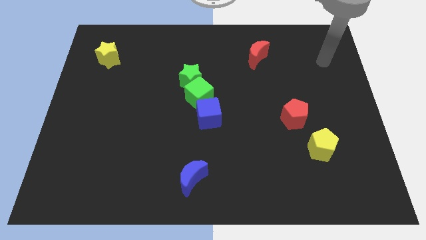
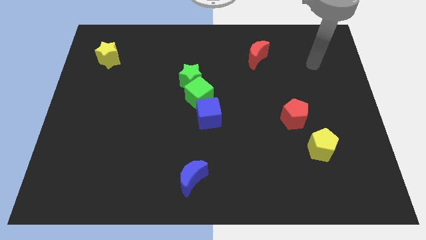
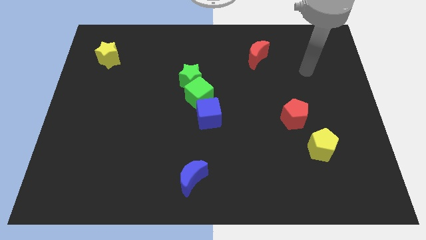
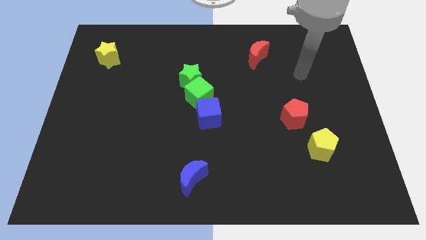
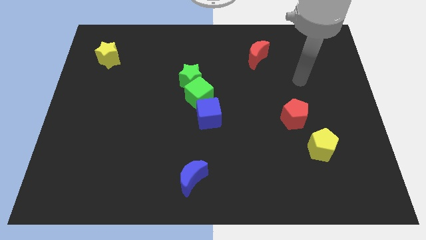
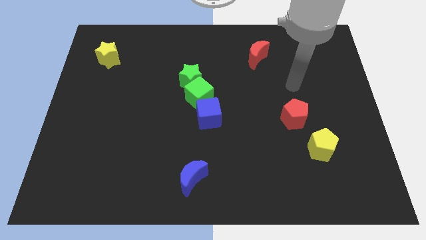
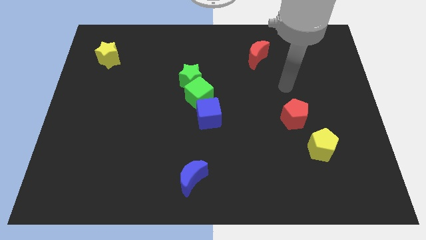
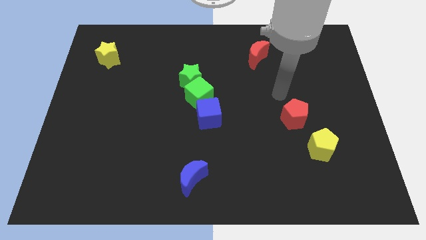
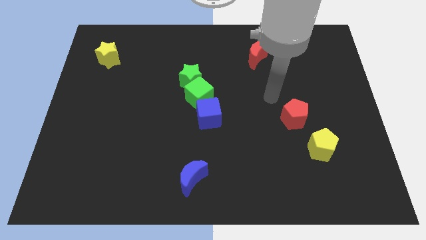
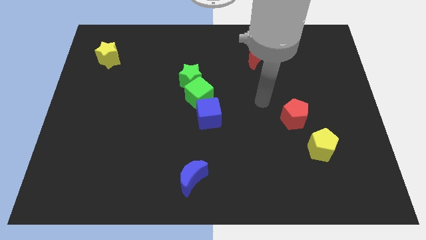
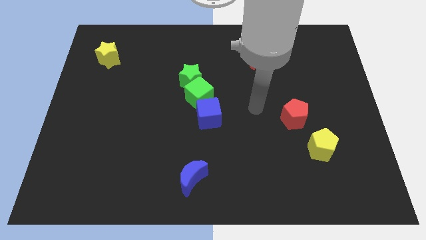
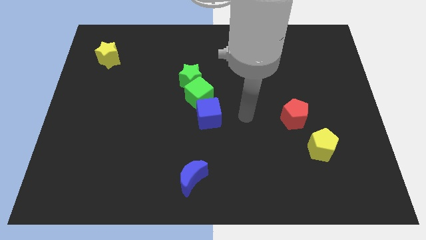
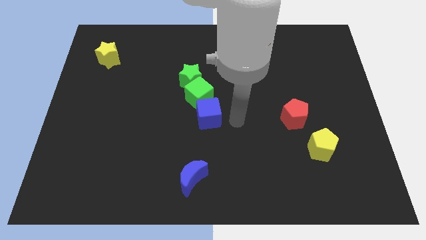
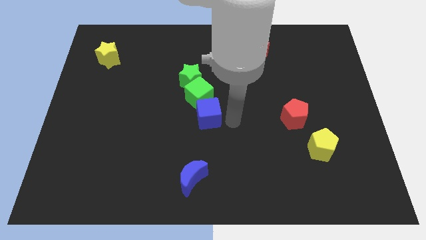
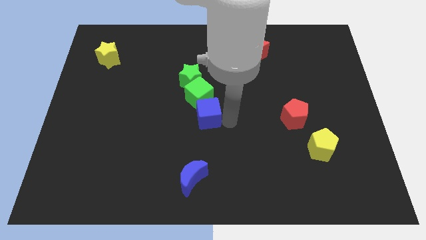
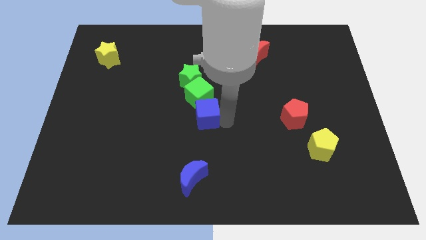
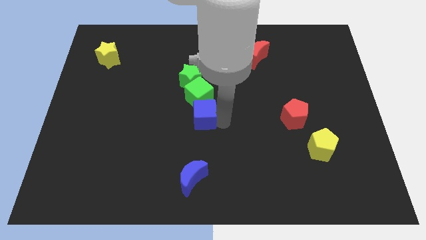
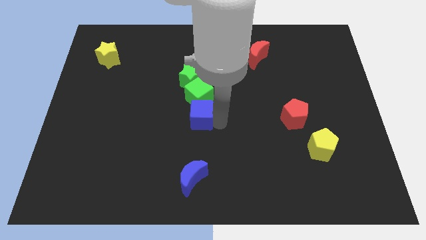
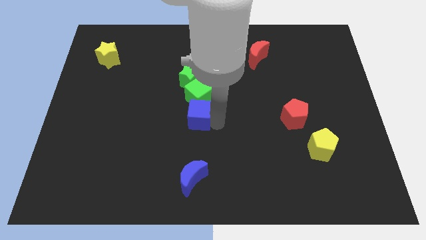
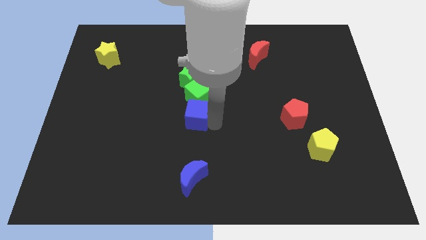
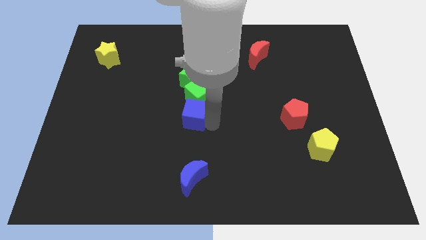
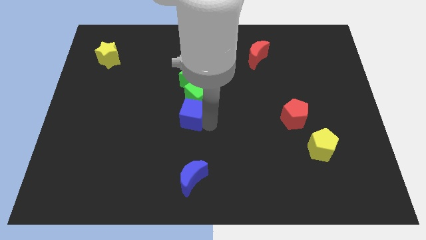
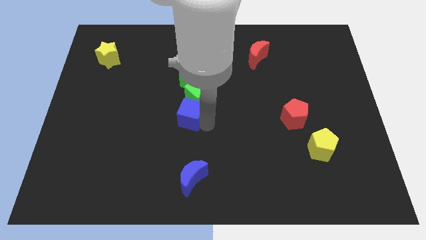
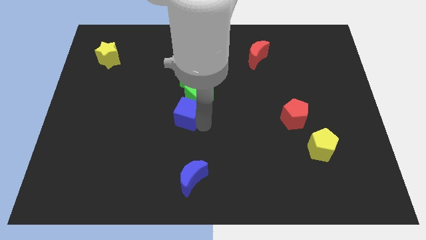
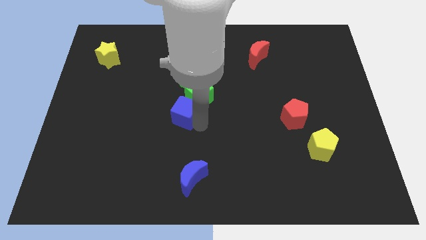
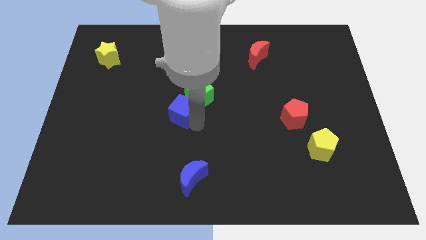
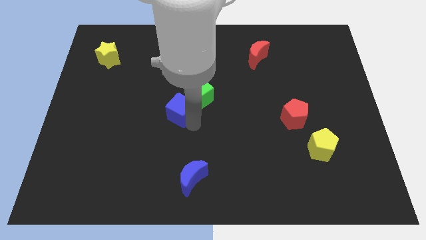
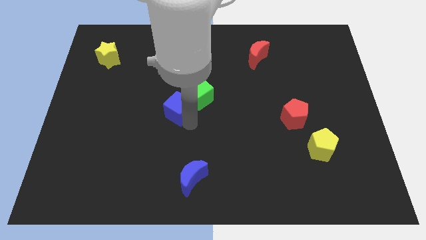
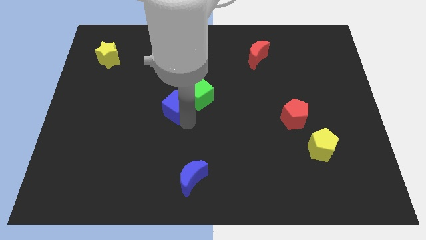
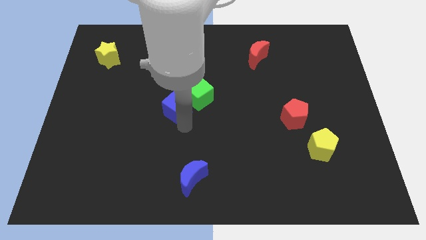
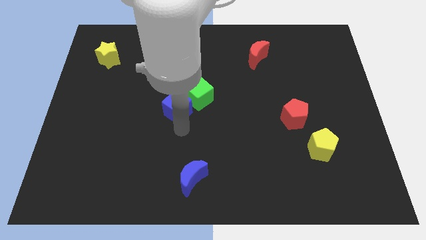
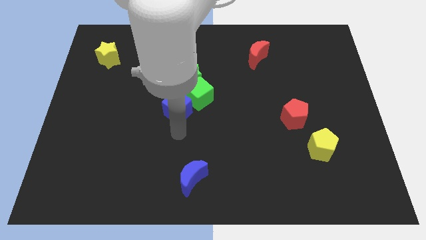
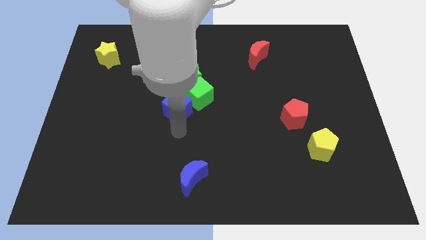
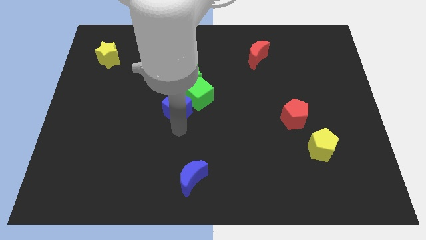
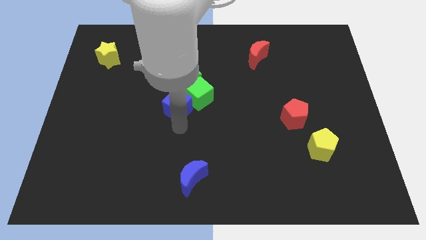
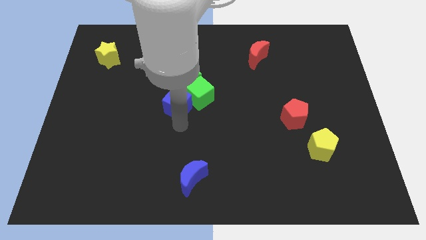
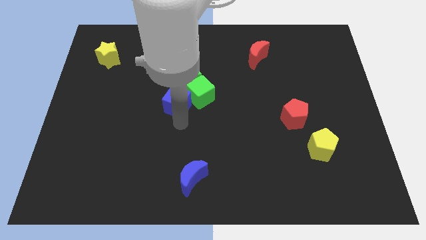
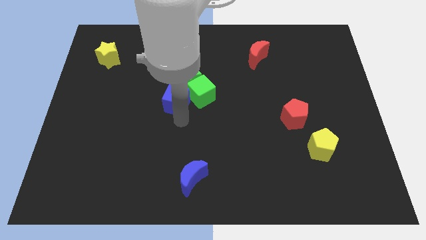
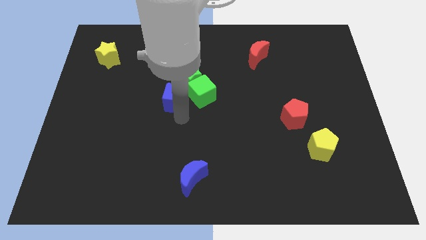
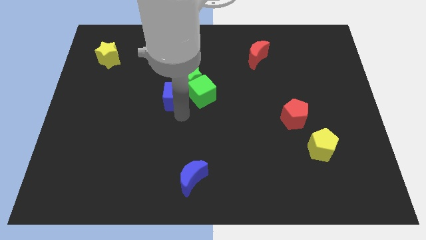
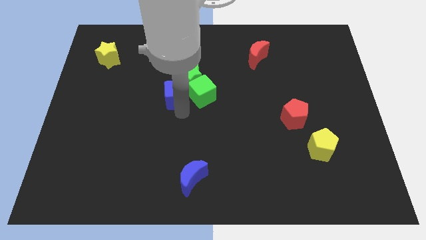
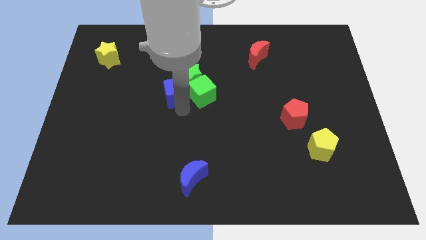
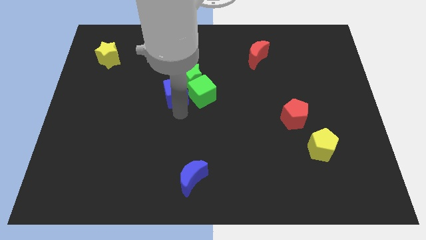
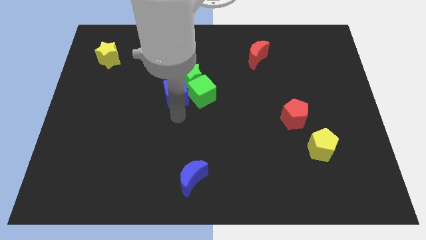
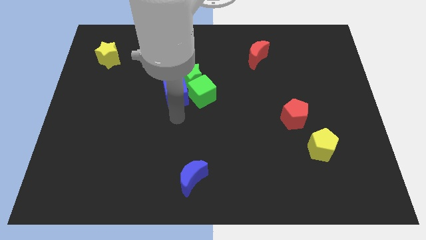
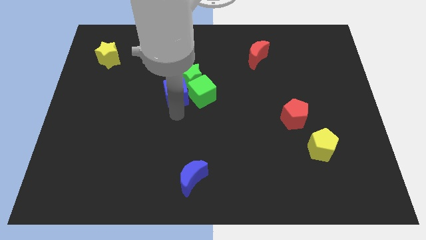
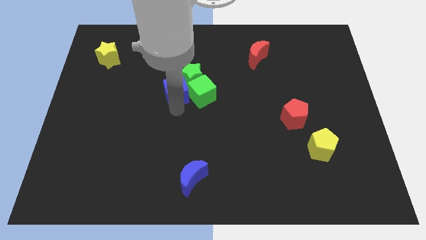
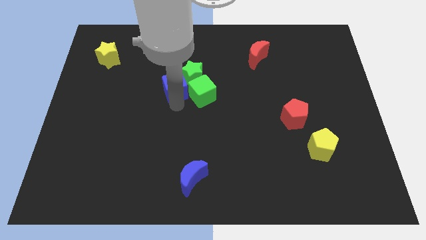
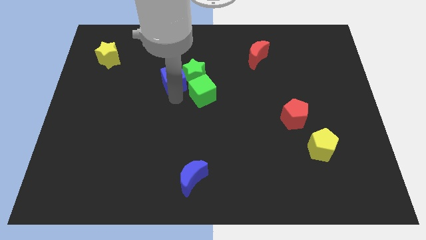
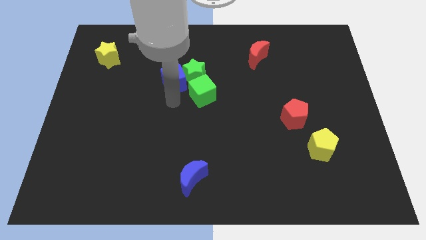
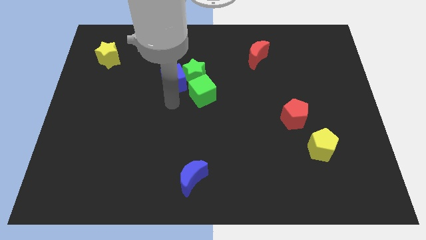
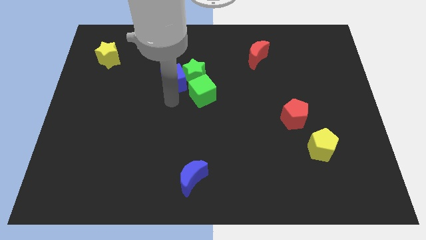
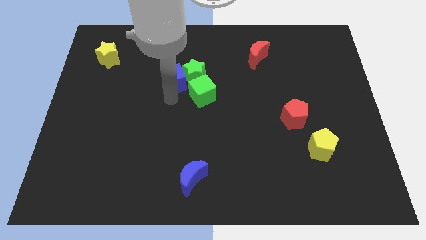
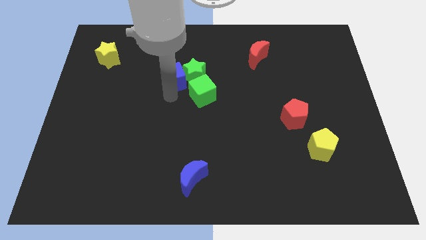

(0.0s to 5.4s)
slide the blue cube to the top left side of the green star

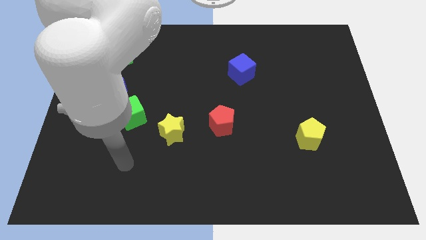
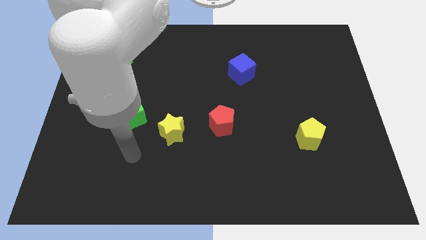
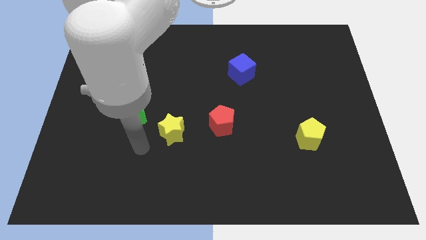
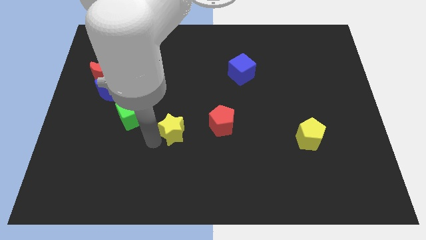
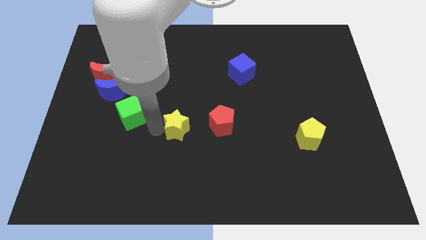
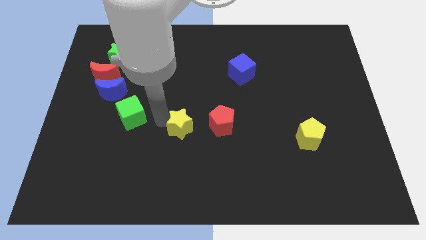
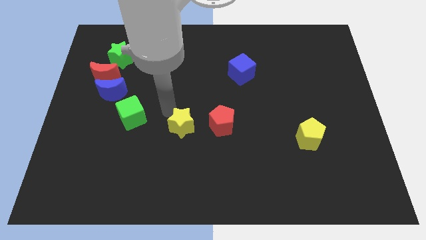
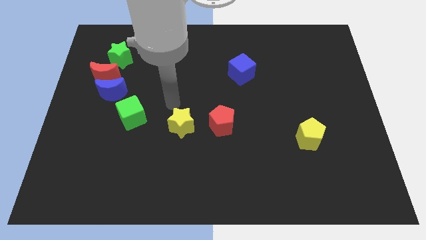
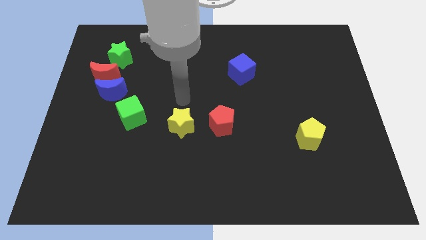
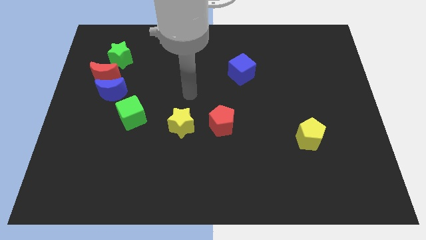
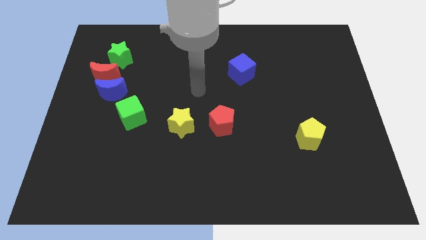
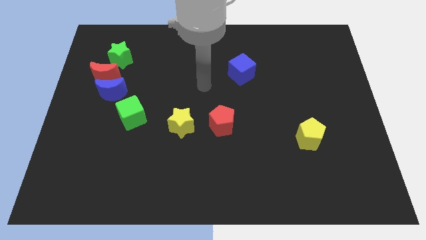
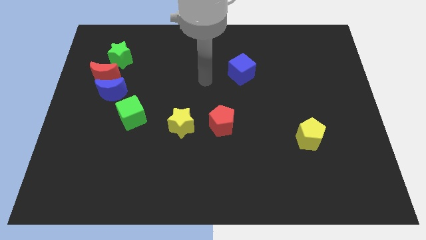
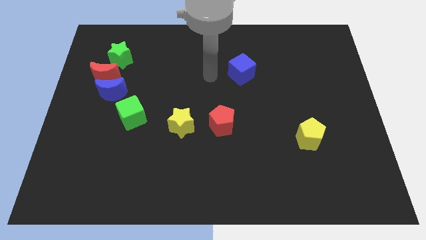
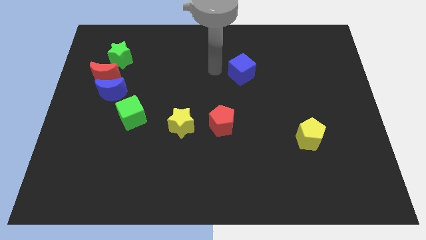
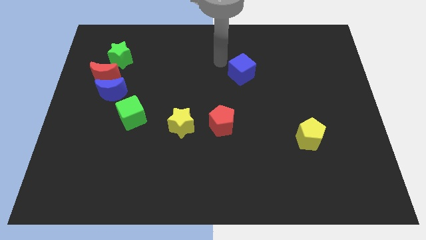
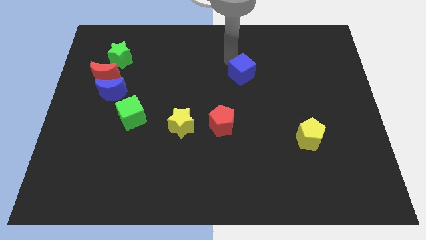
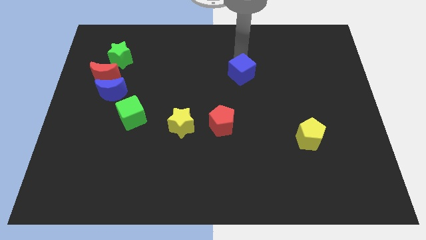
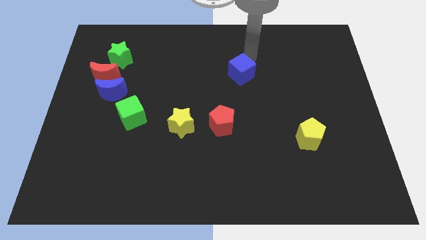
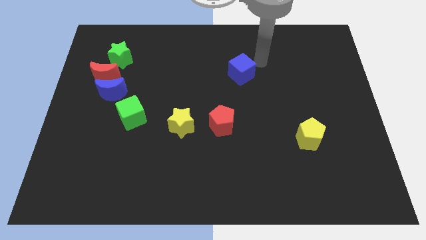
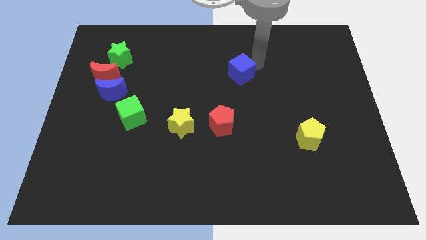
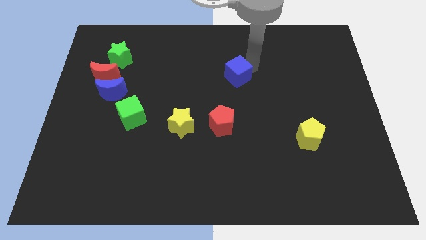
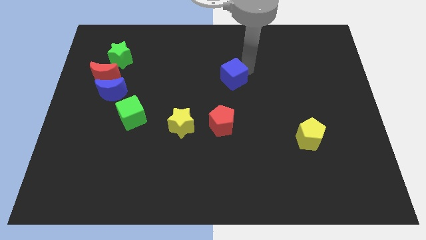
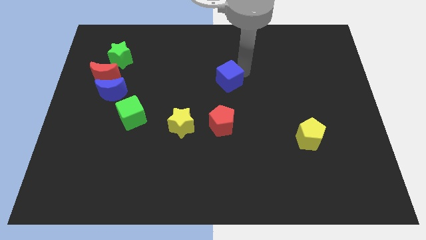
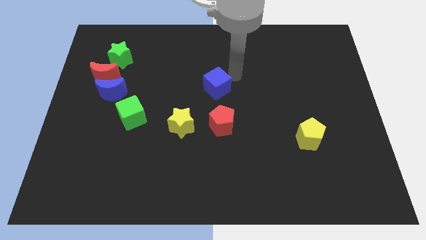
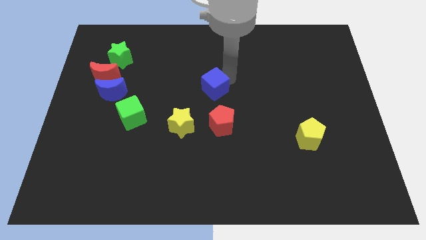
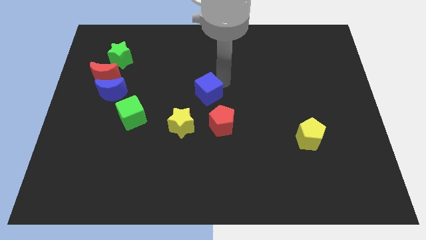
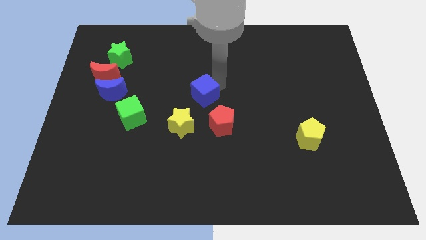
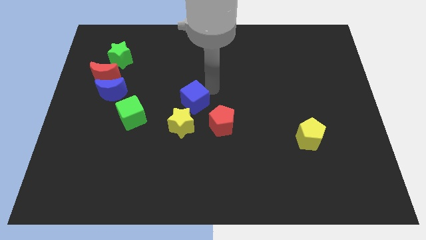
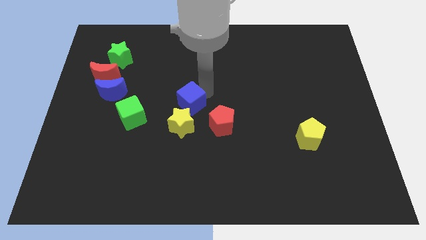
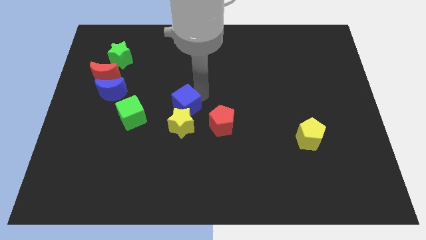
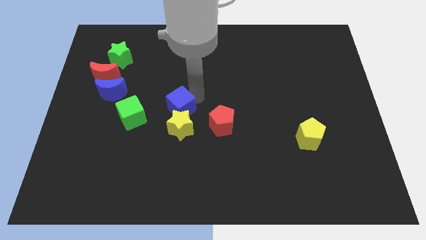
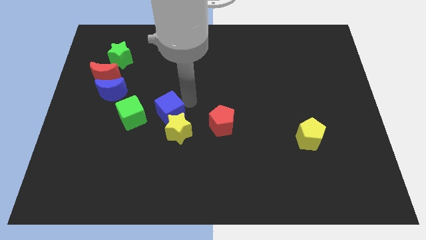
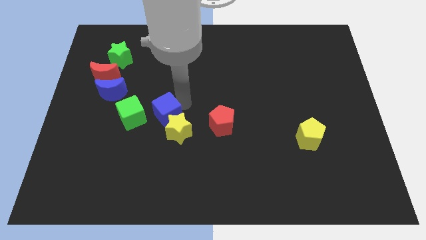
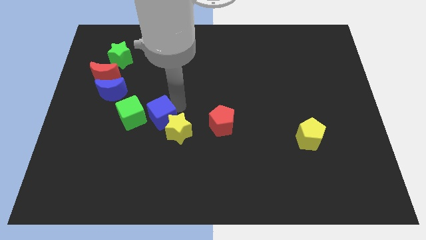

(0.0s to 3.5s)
slide the blue cube diagonally down and to the right of the green cube
